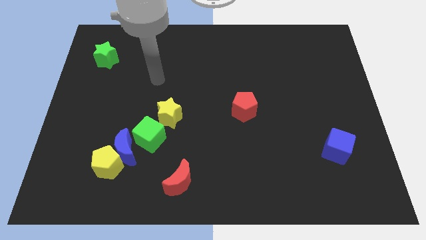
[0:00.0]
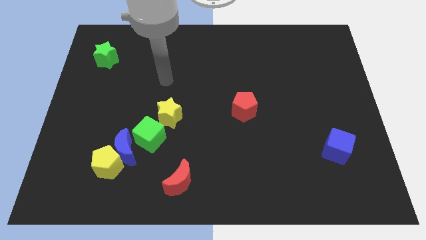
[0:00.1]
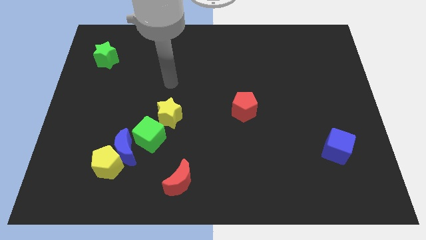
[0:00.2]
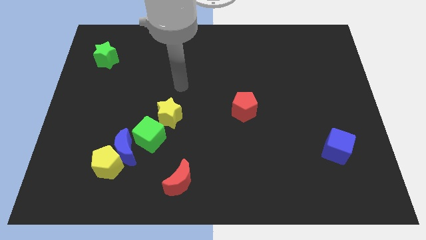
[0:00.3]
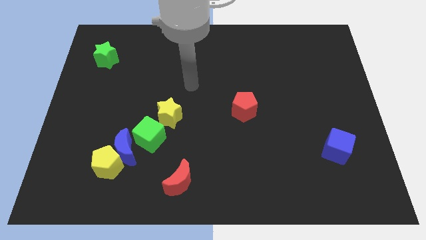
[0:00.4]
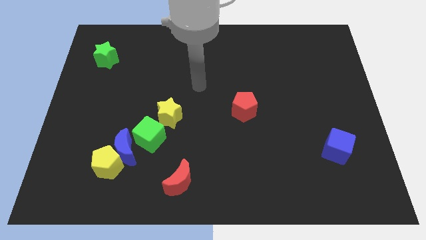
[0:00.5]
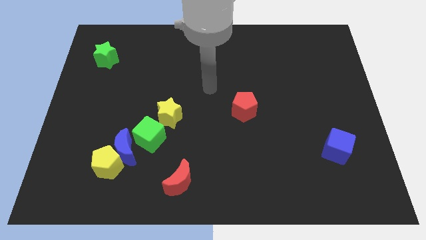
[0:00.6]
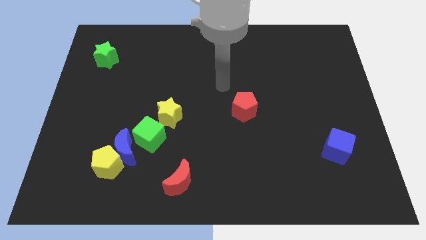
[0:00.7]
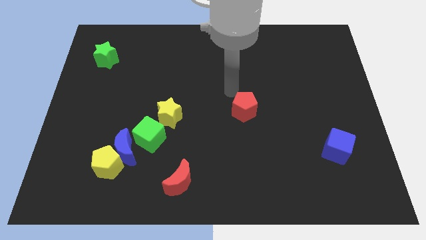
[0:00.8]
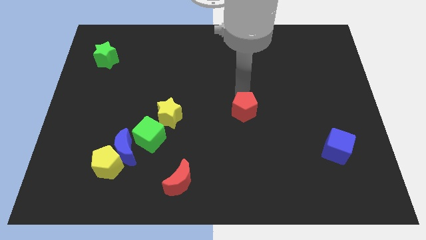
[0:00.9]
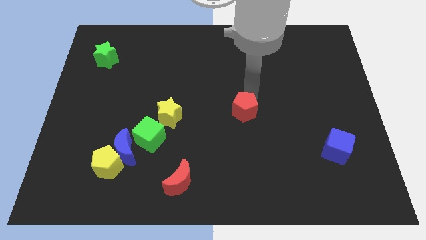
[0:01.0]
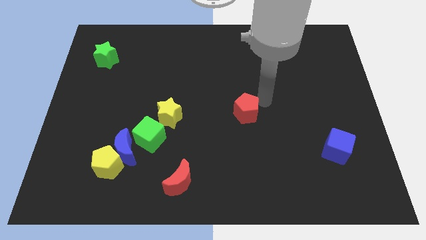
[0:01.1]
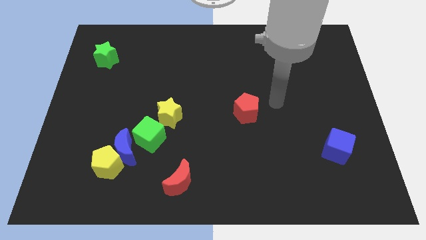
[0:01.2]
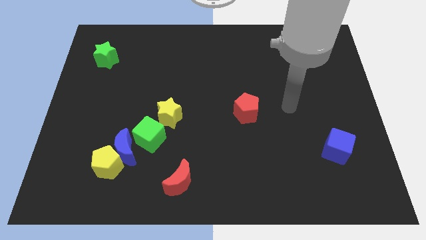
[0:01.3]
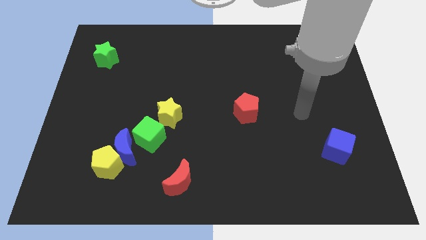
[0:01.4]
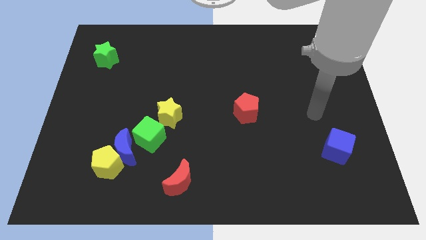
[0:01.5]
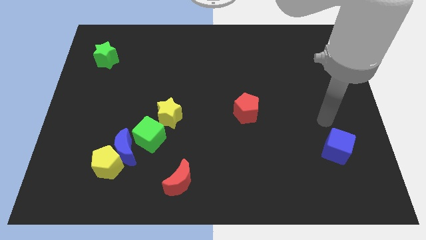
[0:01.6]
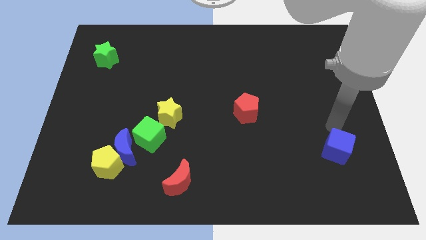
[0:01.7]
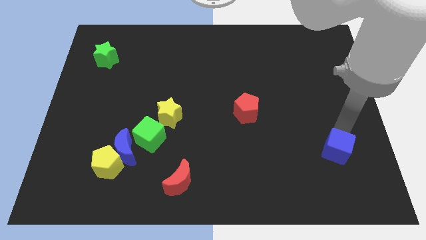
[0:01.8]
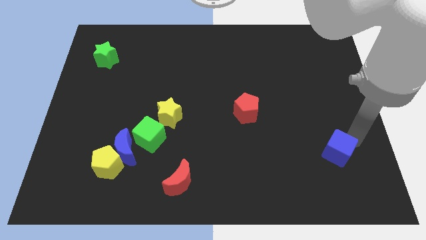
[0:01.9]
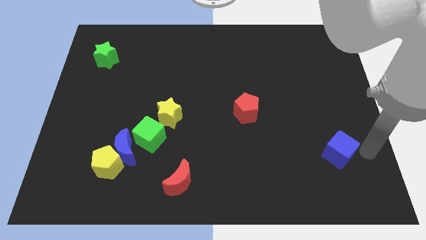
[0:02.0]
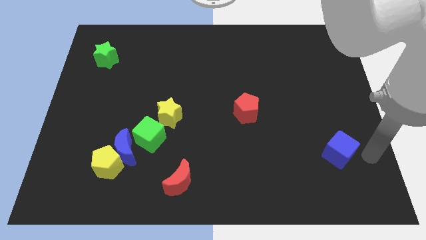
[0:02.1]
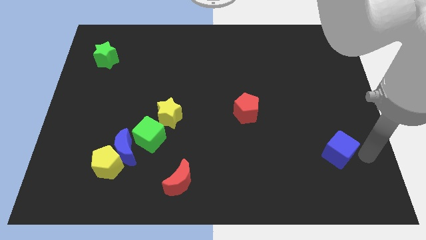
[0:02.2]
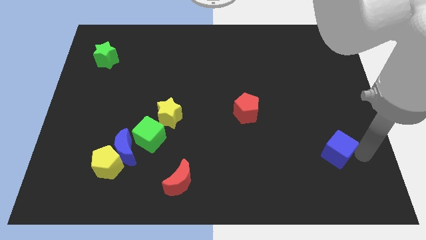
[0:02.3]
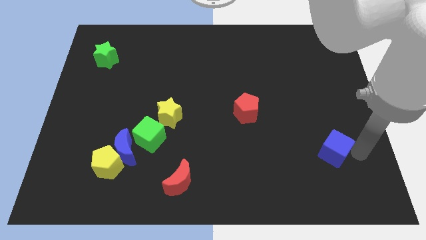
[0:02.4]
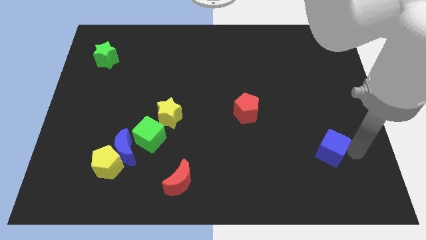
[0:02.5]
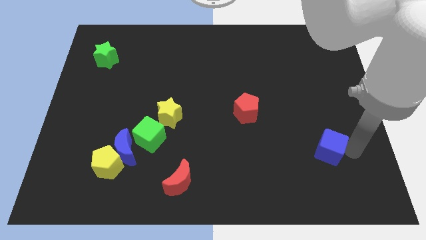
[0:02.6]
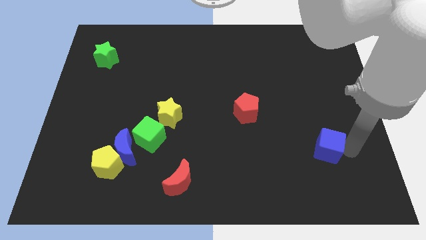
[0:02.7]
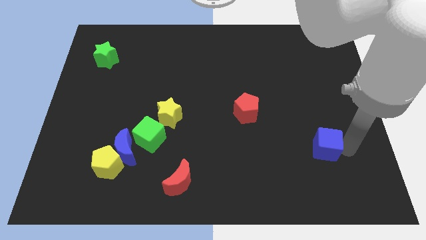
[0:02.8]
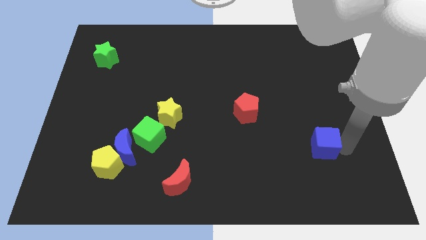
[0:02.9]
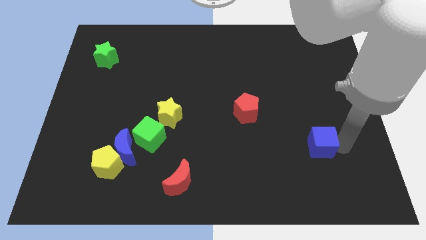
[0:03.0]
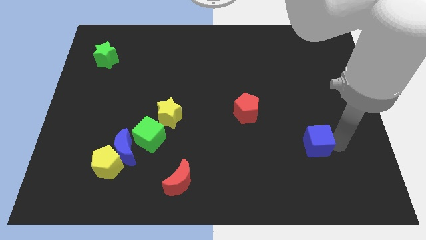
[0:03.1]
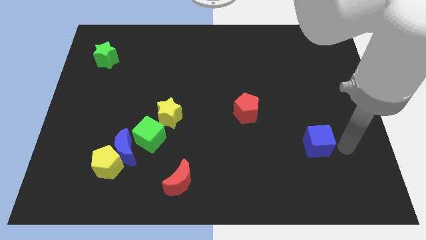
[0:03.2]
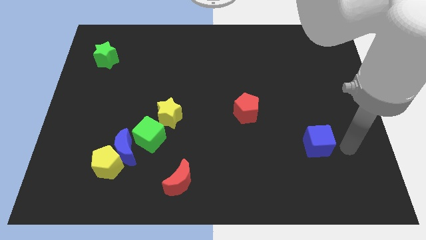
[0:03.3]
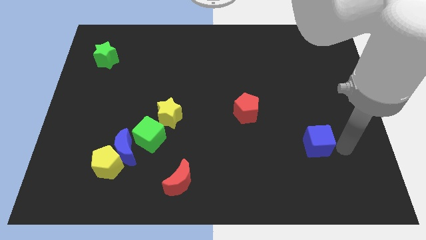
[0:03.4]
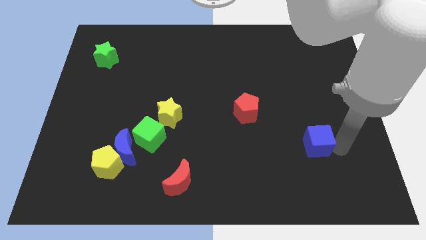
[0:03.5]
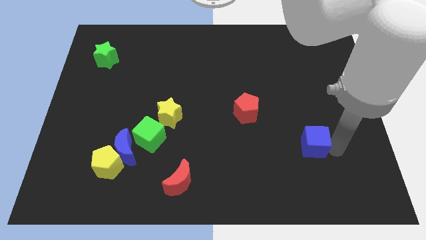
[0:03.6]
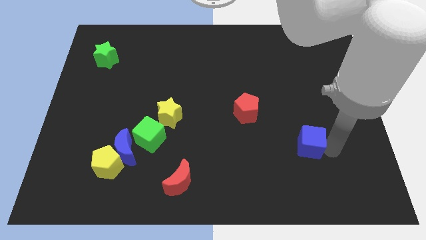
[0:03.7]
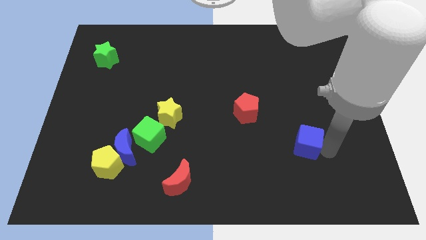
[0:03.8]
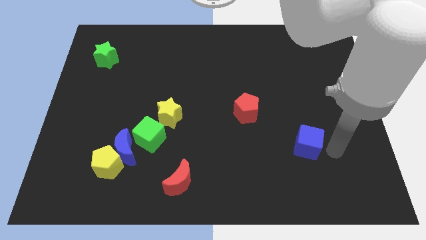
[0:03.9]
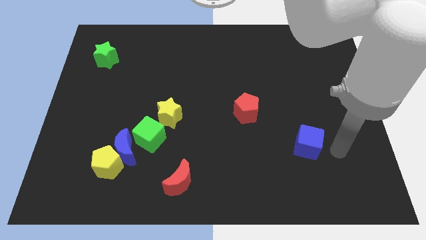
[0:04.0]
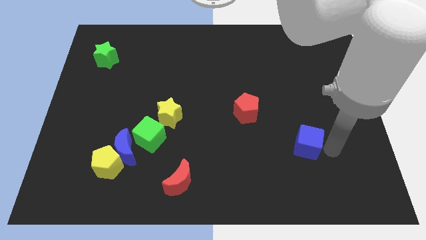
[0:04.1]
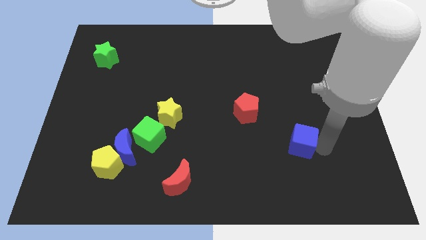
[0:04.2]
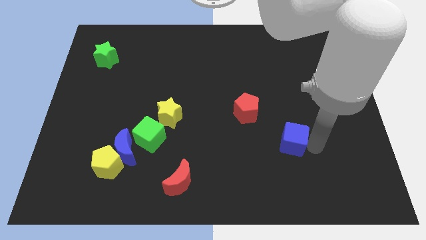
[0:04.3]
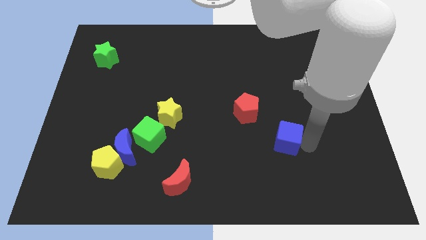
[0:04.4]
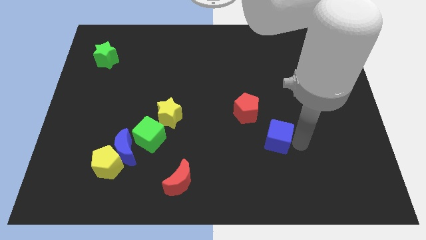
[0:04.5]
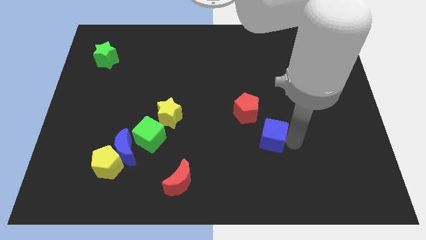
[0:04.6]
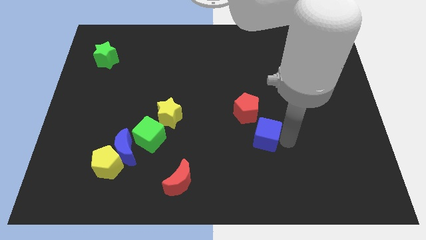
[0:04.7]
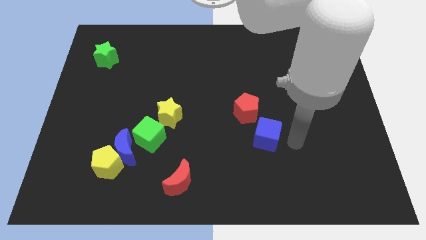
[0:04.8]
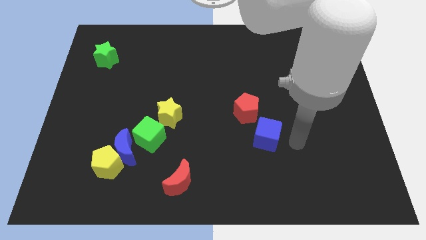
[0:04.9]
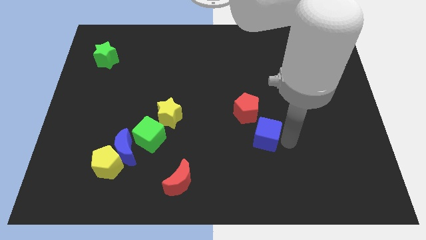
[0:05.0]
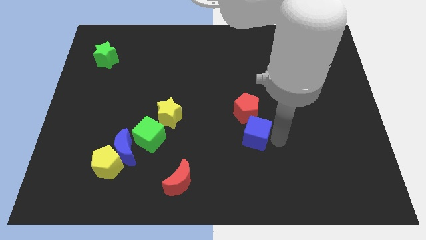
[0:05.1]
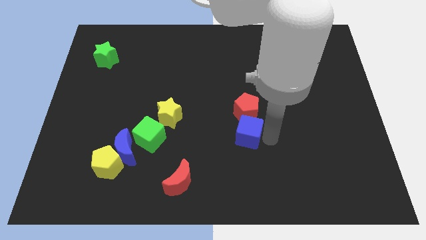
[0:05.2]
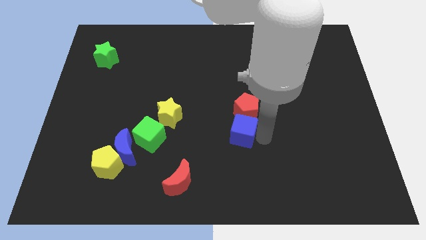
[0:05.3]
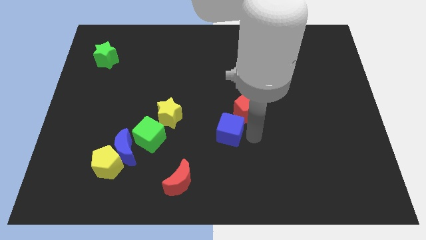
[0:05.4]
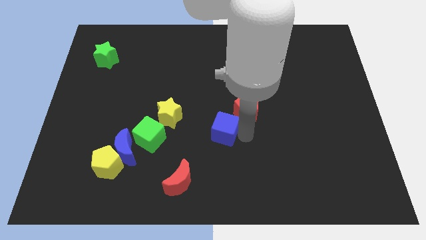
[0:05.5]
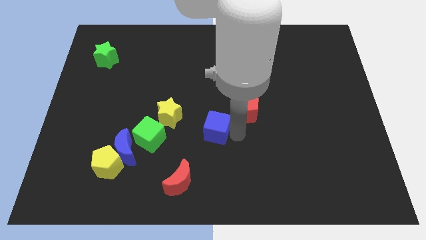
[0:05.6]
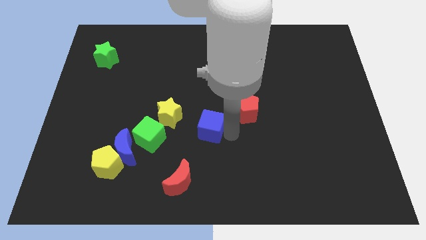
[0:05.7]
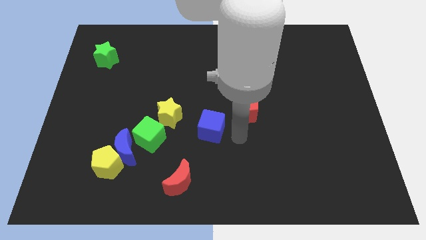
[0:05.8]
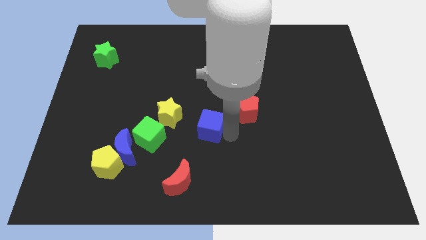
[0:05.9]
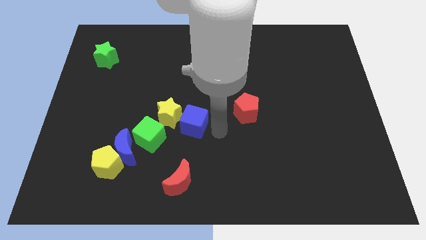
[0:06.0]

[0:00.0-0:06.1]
push the blue cube towards the yellow star

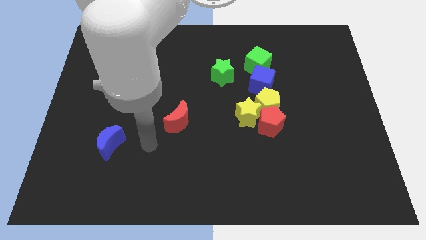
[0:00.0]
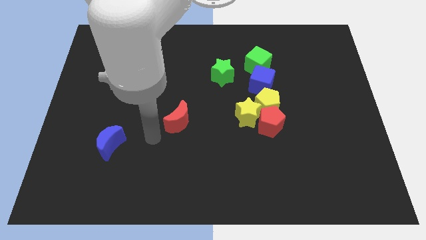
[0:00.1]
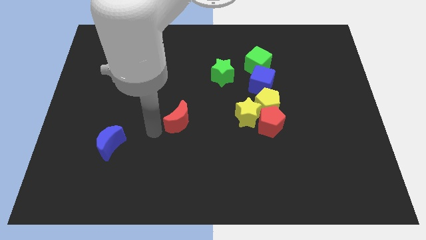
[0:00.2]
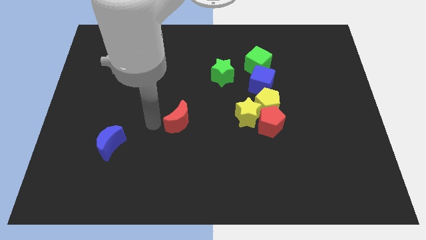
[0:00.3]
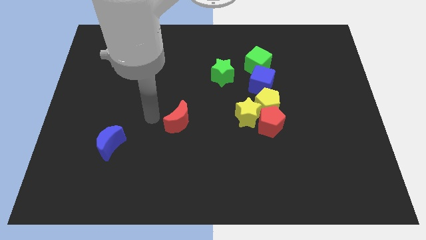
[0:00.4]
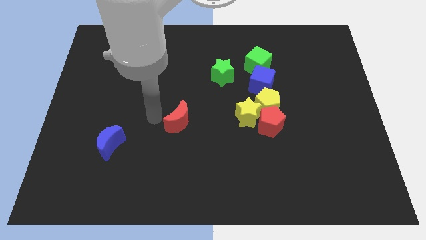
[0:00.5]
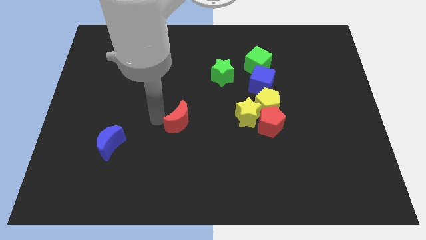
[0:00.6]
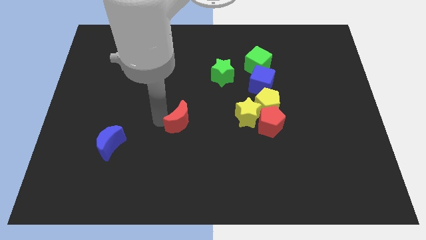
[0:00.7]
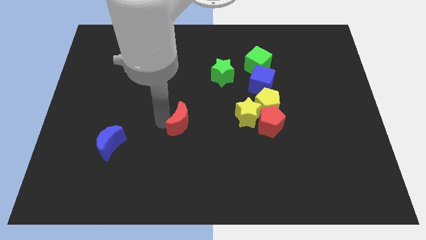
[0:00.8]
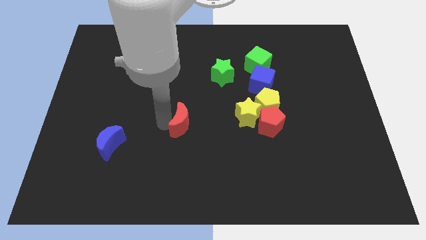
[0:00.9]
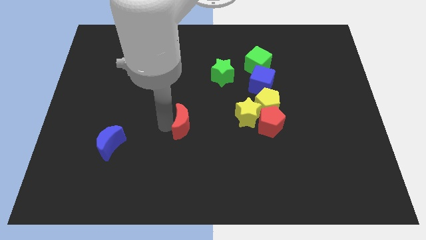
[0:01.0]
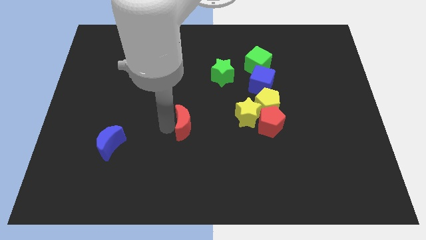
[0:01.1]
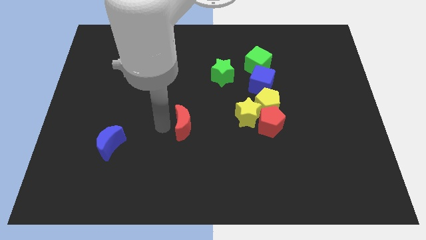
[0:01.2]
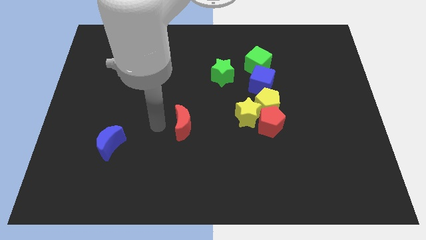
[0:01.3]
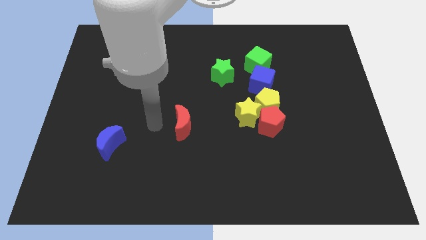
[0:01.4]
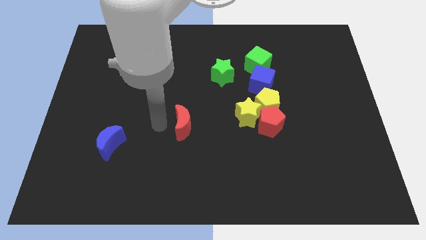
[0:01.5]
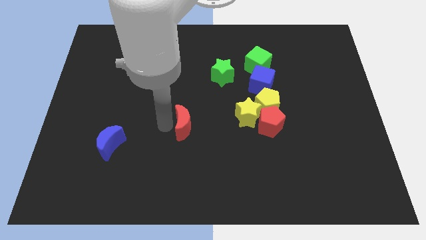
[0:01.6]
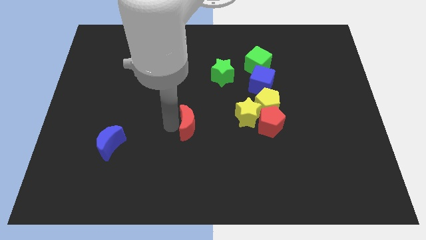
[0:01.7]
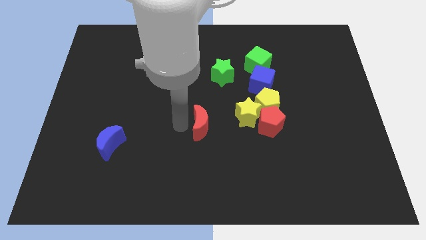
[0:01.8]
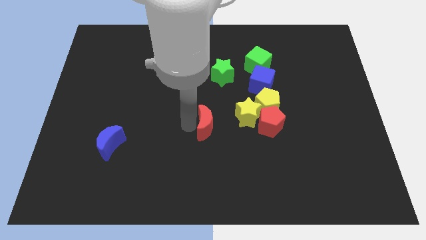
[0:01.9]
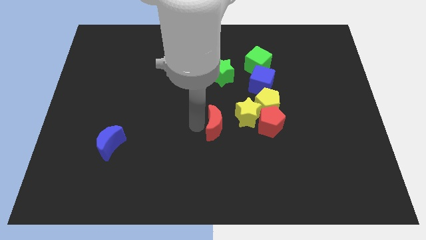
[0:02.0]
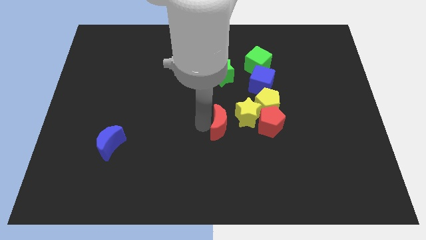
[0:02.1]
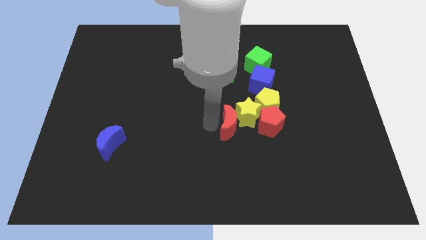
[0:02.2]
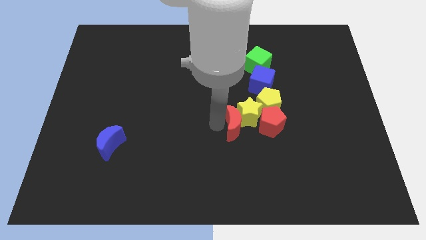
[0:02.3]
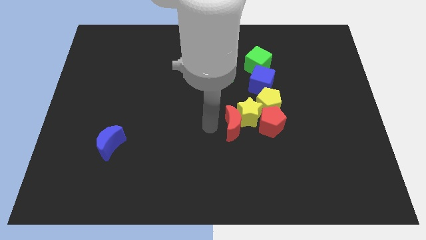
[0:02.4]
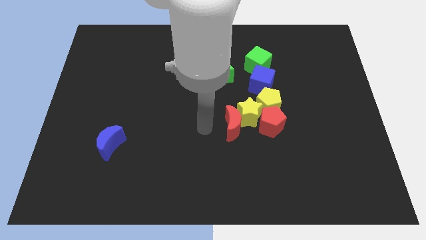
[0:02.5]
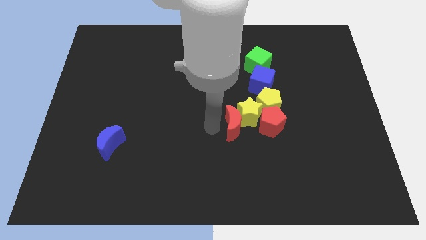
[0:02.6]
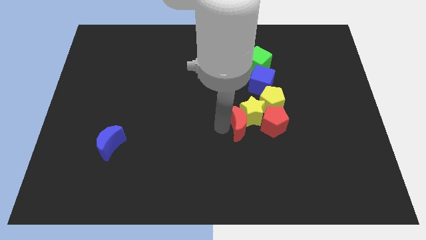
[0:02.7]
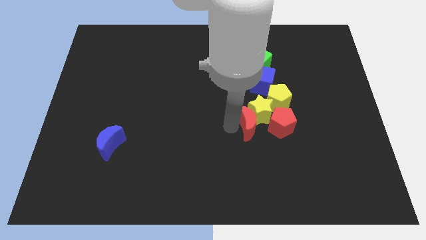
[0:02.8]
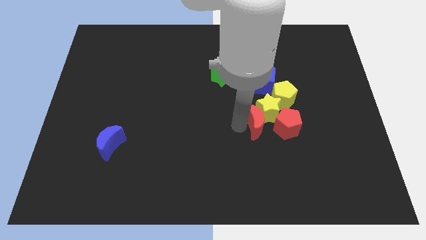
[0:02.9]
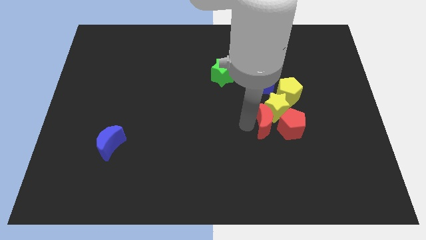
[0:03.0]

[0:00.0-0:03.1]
push the red moon towards the red pentagon
